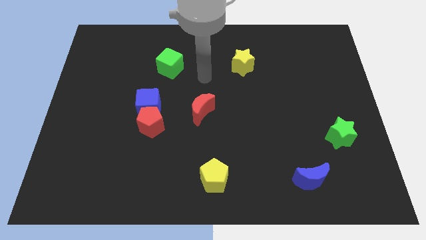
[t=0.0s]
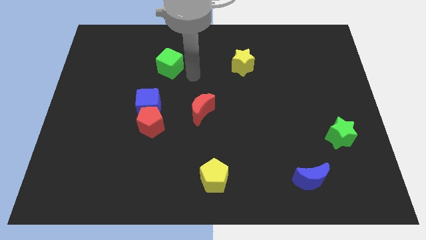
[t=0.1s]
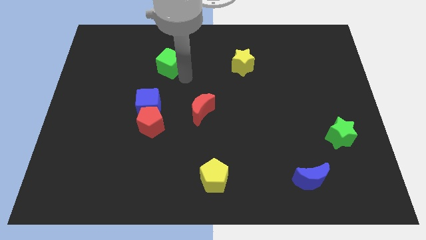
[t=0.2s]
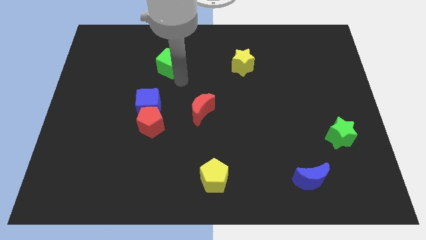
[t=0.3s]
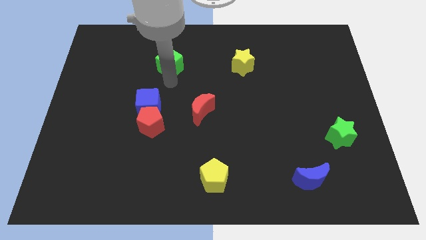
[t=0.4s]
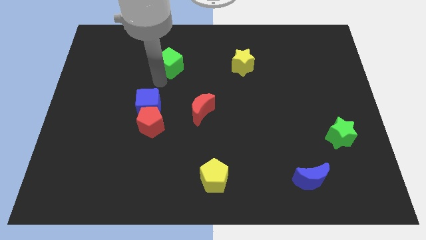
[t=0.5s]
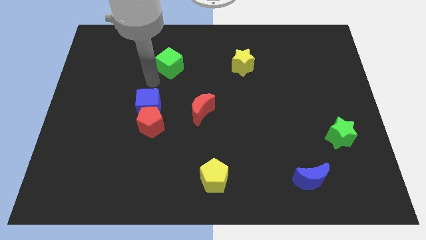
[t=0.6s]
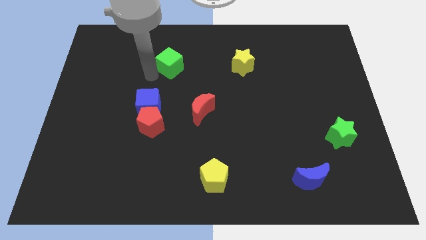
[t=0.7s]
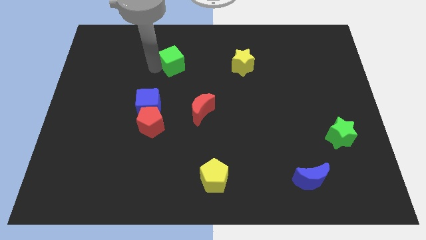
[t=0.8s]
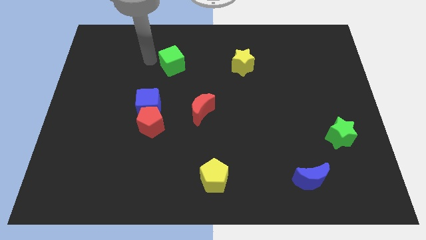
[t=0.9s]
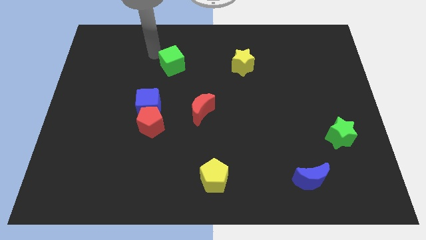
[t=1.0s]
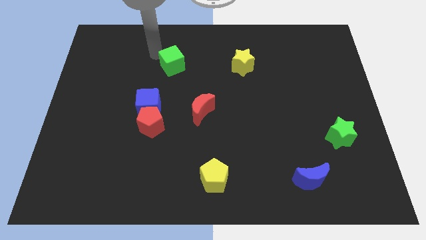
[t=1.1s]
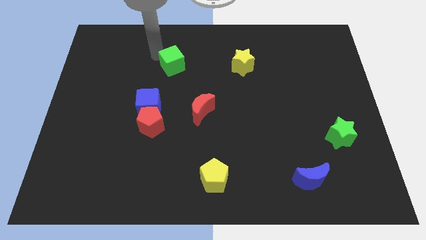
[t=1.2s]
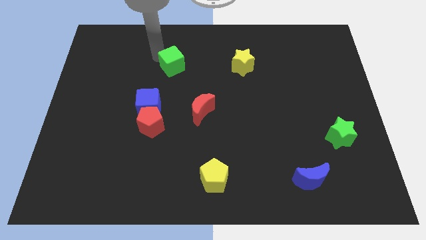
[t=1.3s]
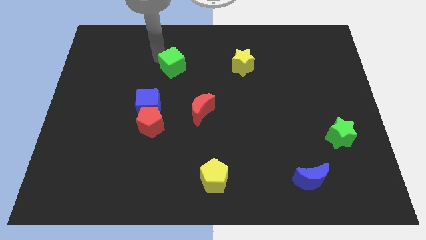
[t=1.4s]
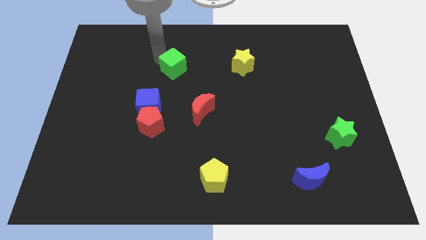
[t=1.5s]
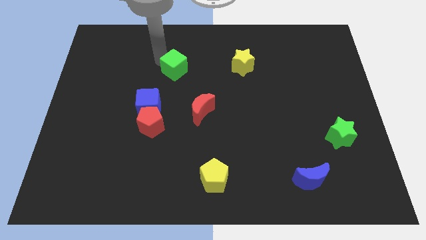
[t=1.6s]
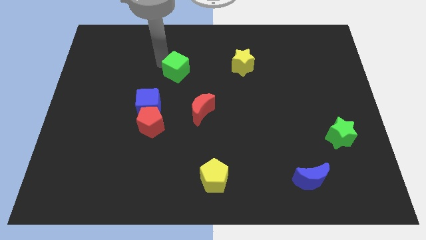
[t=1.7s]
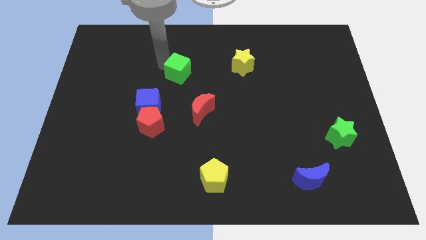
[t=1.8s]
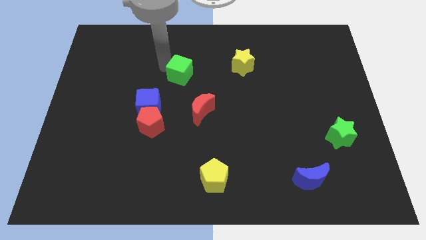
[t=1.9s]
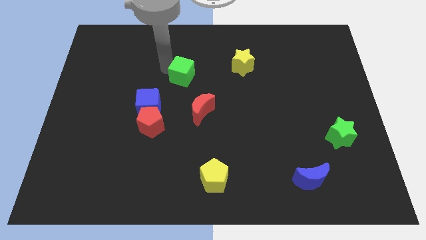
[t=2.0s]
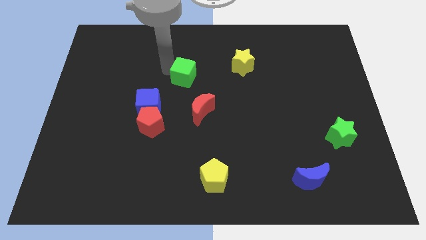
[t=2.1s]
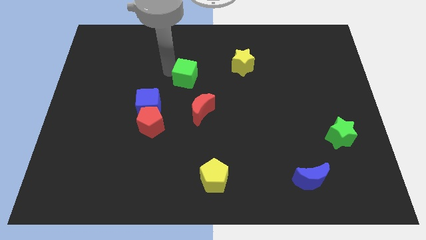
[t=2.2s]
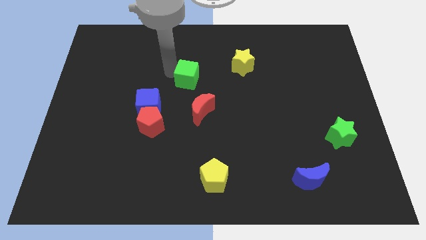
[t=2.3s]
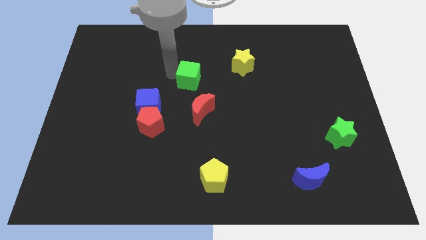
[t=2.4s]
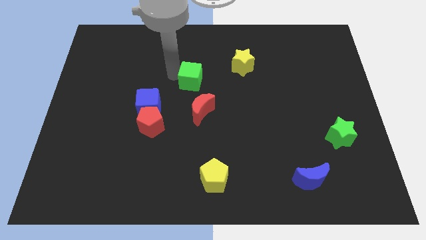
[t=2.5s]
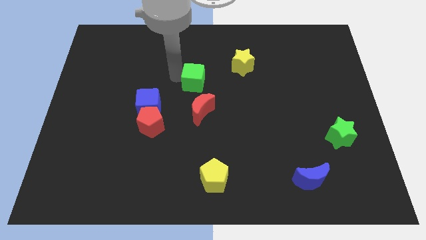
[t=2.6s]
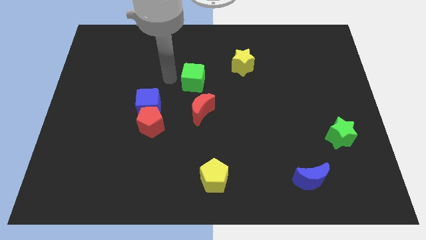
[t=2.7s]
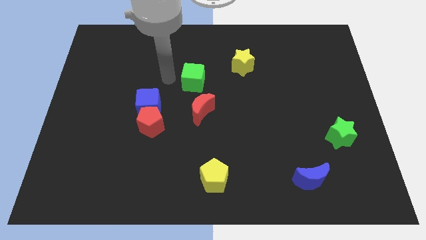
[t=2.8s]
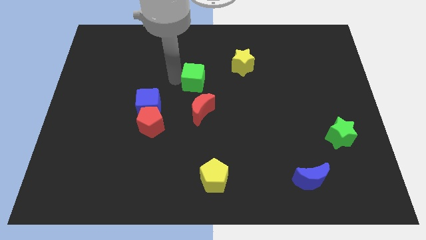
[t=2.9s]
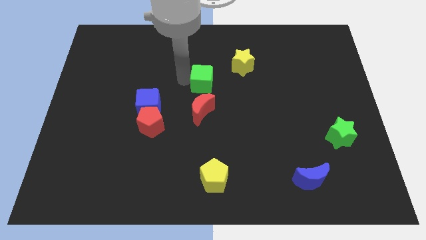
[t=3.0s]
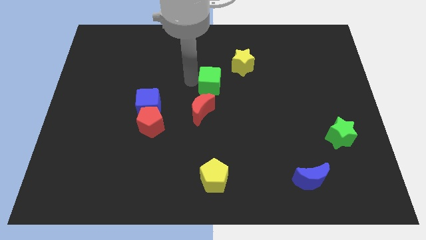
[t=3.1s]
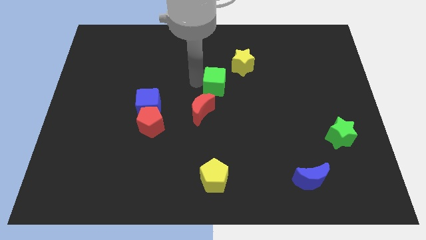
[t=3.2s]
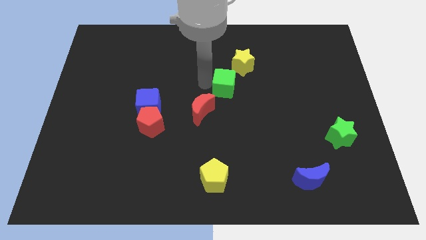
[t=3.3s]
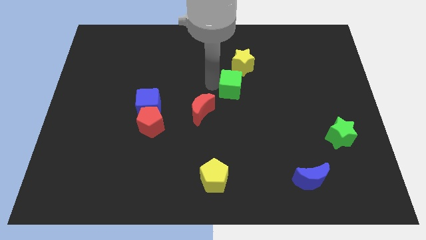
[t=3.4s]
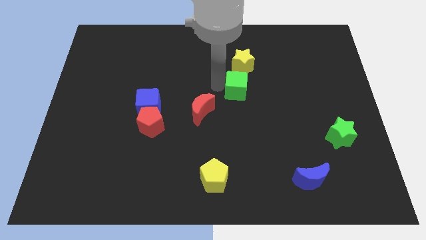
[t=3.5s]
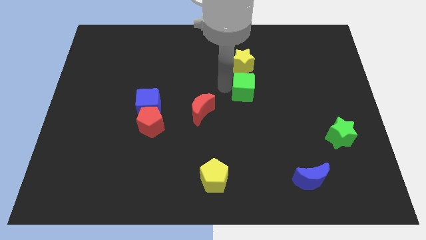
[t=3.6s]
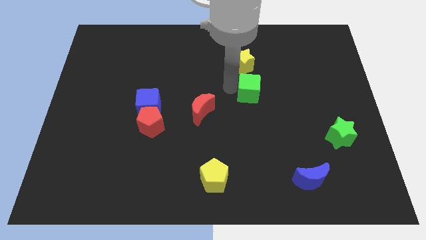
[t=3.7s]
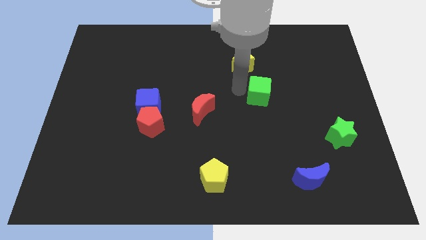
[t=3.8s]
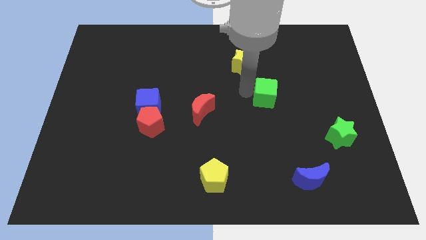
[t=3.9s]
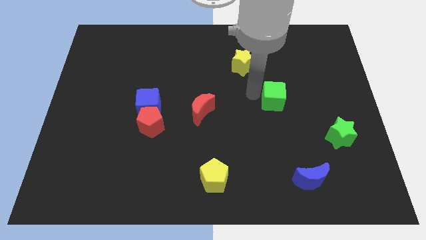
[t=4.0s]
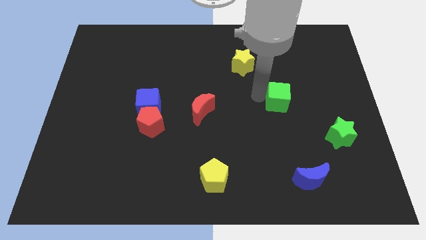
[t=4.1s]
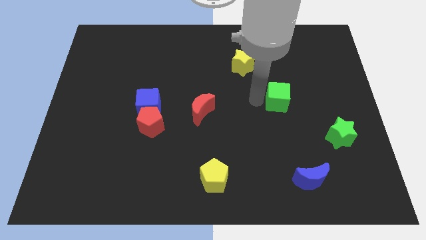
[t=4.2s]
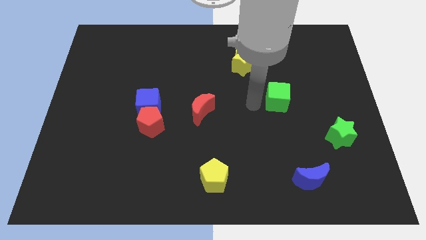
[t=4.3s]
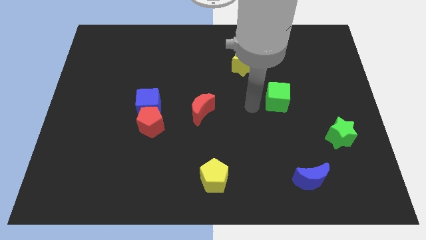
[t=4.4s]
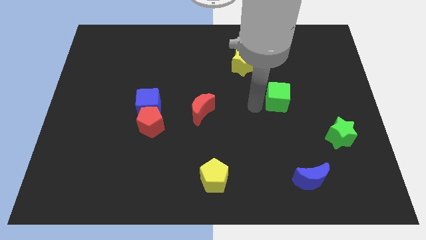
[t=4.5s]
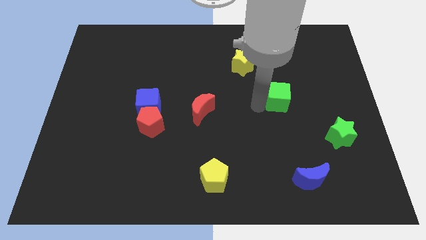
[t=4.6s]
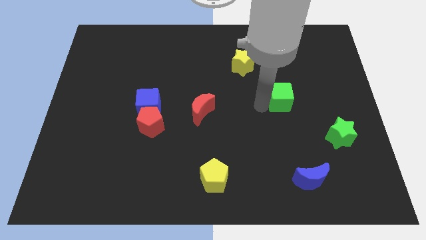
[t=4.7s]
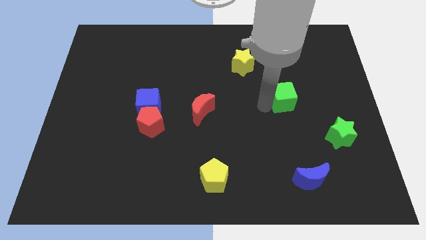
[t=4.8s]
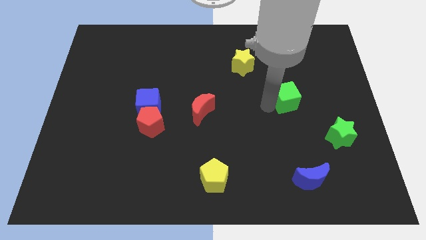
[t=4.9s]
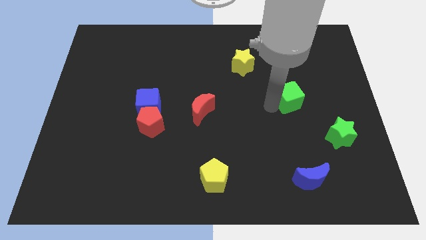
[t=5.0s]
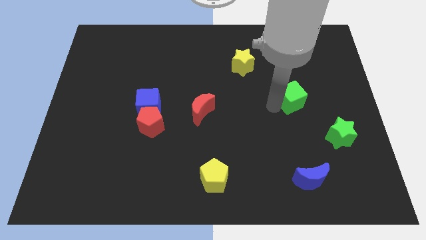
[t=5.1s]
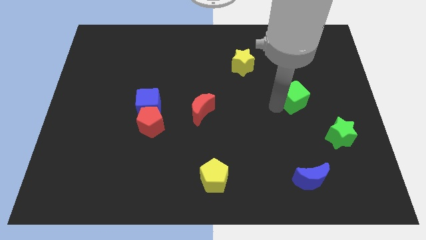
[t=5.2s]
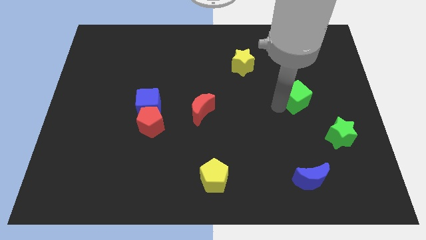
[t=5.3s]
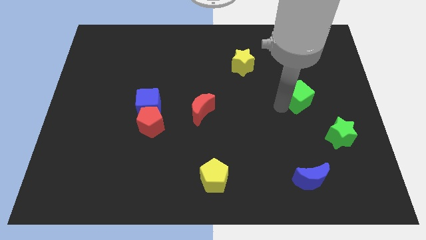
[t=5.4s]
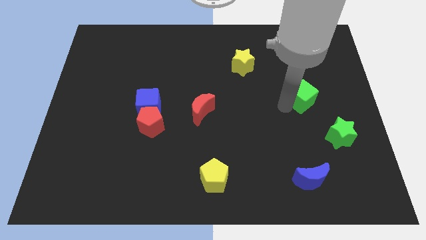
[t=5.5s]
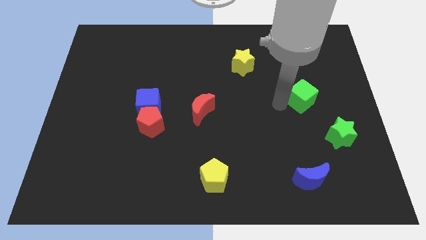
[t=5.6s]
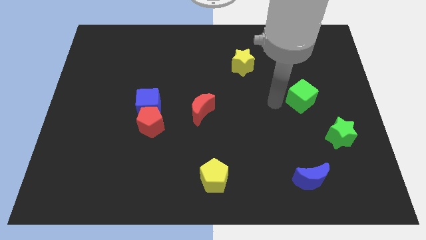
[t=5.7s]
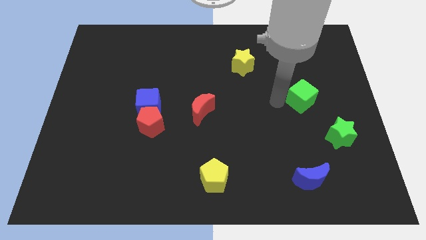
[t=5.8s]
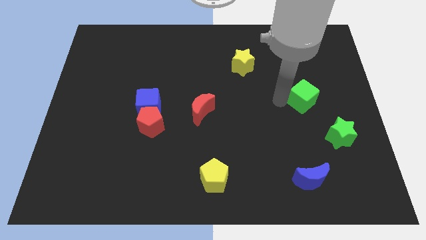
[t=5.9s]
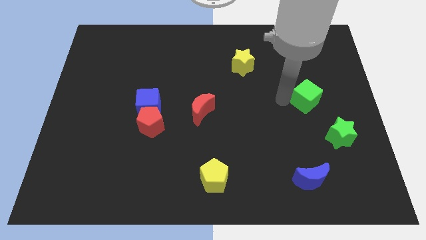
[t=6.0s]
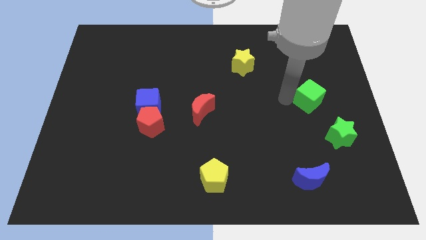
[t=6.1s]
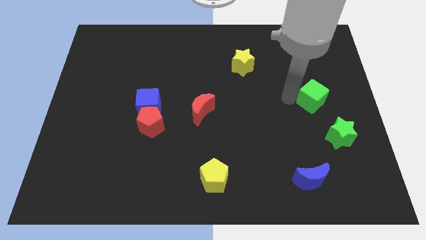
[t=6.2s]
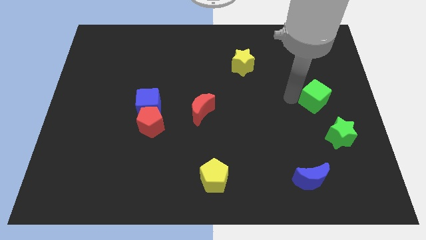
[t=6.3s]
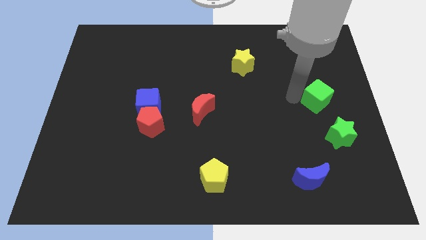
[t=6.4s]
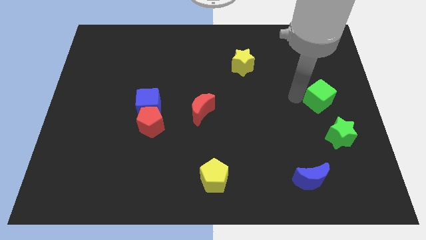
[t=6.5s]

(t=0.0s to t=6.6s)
push the green cube to the right side

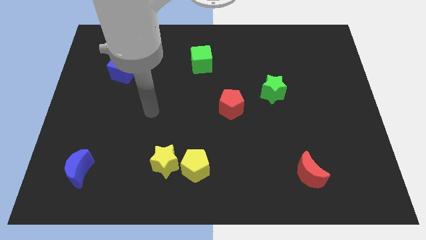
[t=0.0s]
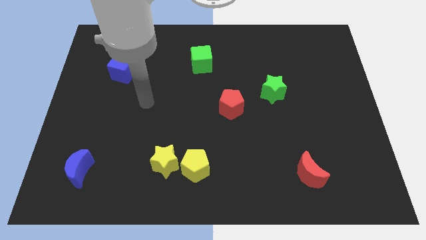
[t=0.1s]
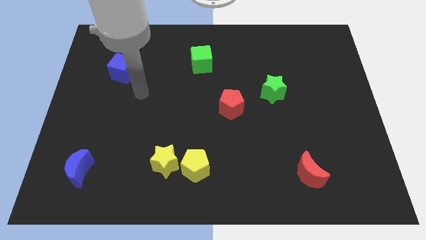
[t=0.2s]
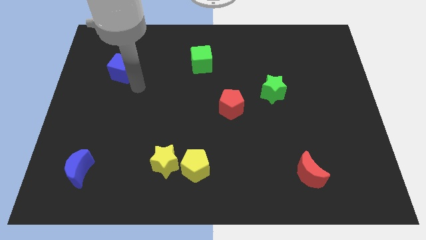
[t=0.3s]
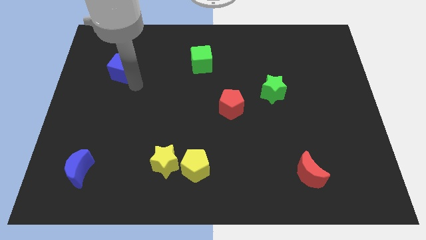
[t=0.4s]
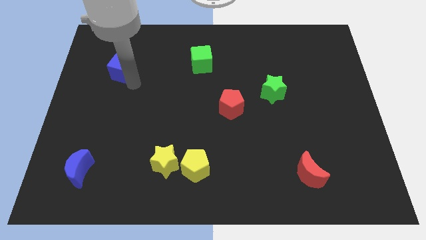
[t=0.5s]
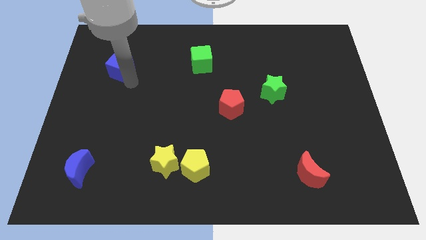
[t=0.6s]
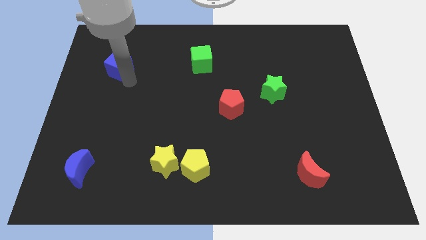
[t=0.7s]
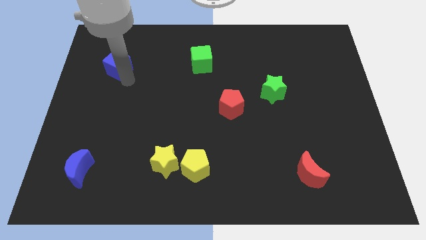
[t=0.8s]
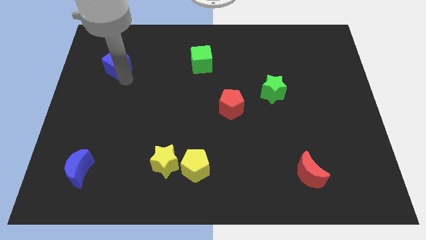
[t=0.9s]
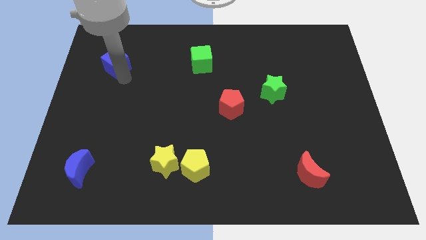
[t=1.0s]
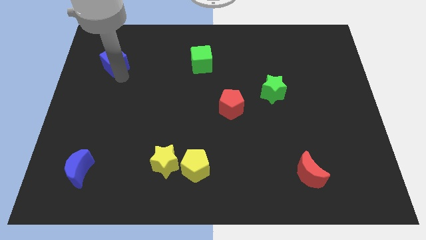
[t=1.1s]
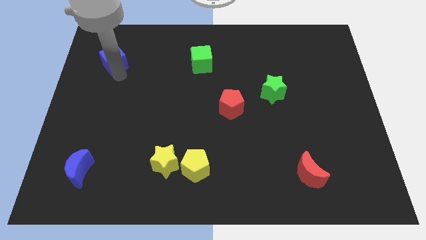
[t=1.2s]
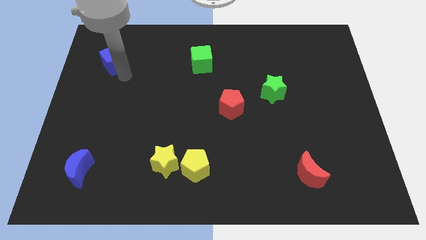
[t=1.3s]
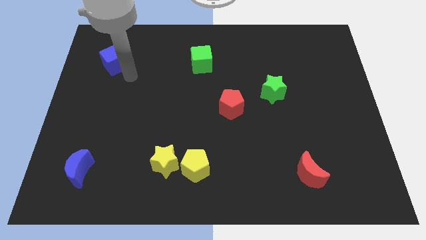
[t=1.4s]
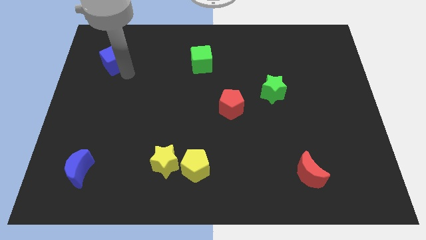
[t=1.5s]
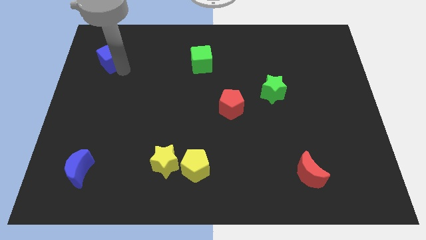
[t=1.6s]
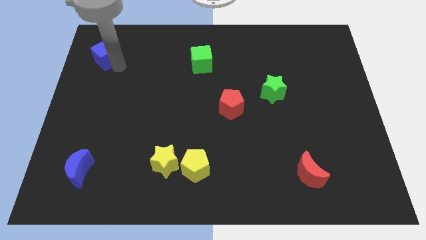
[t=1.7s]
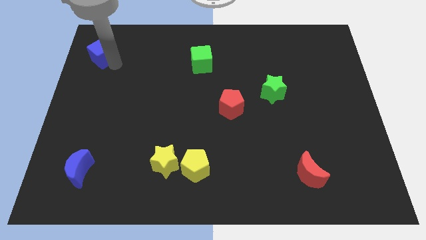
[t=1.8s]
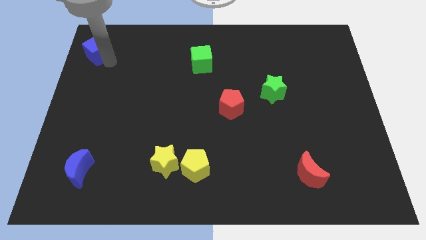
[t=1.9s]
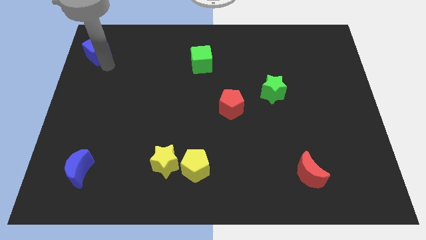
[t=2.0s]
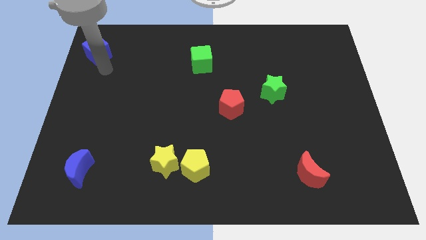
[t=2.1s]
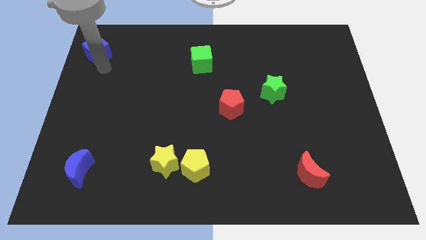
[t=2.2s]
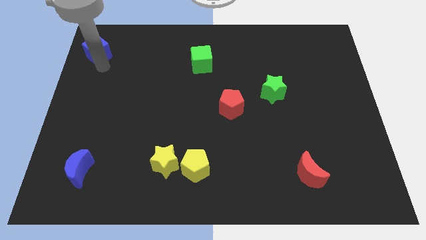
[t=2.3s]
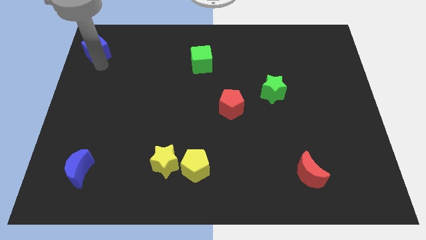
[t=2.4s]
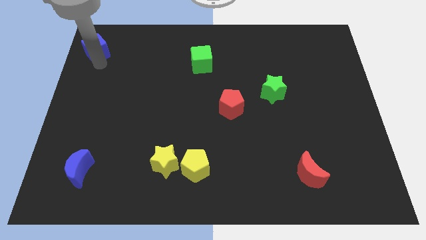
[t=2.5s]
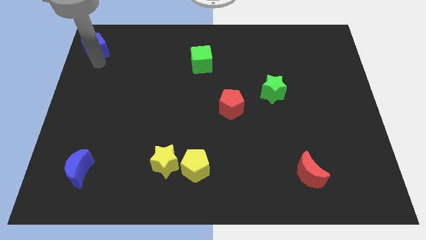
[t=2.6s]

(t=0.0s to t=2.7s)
move the blue cube to the top left
